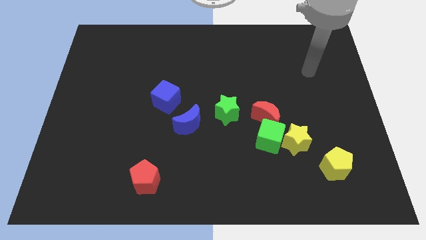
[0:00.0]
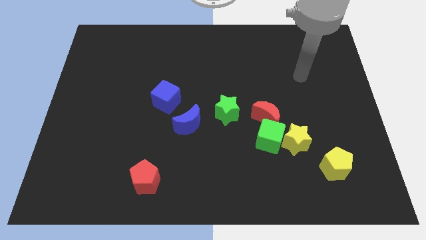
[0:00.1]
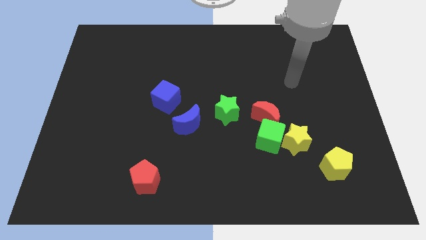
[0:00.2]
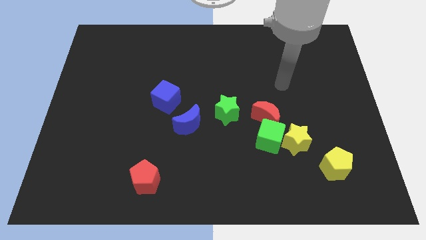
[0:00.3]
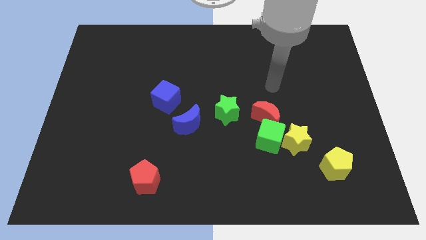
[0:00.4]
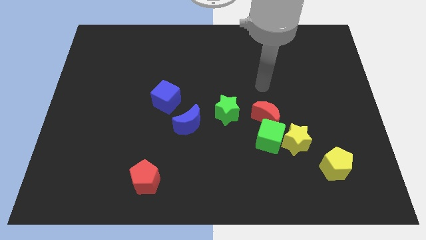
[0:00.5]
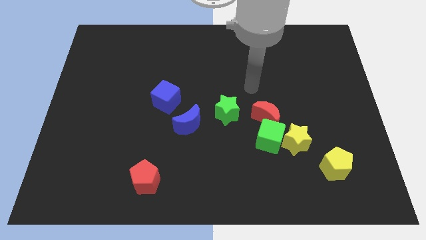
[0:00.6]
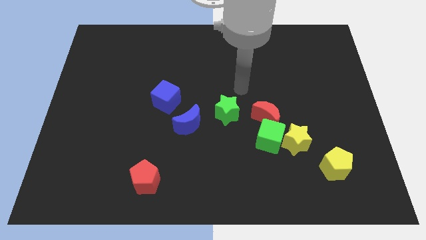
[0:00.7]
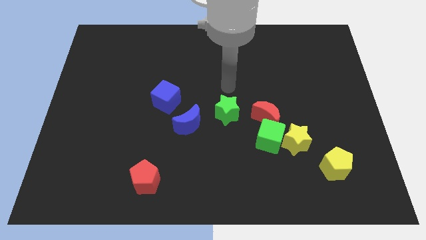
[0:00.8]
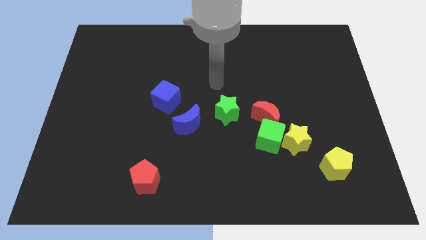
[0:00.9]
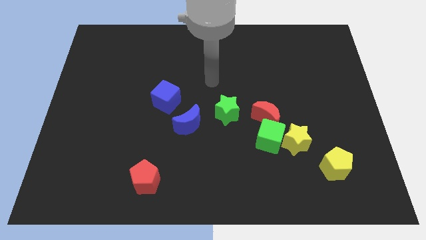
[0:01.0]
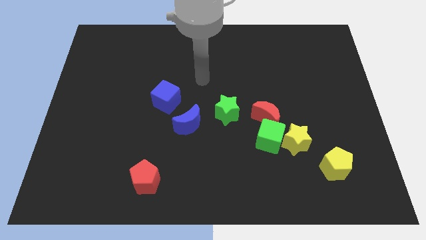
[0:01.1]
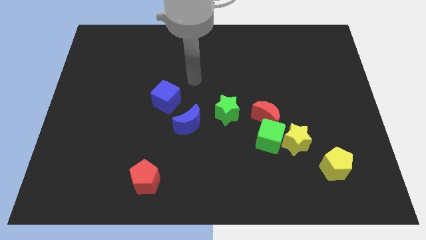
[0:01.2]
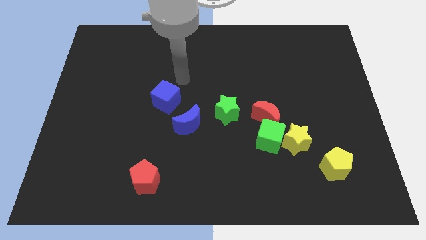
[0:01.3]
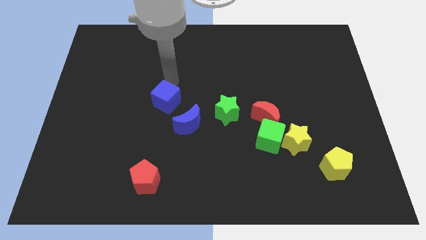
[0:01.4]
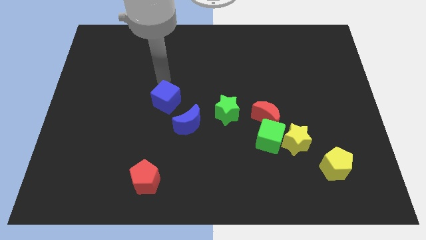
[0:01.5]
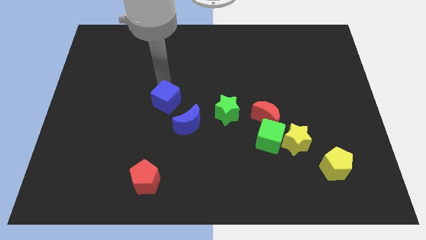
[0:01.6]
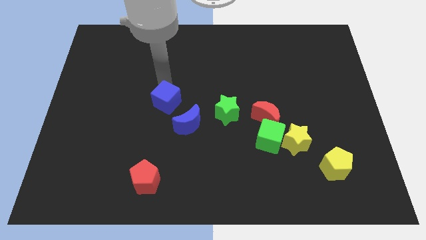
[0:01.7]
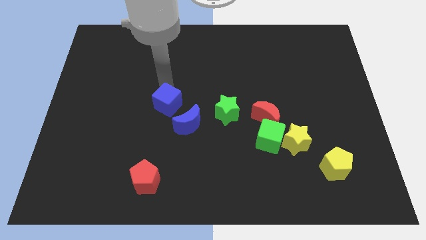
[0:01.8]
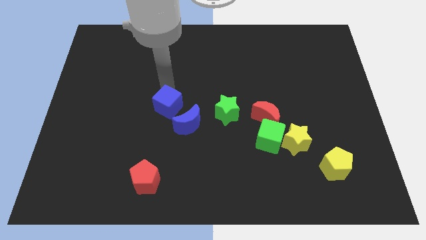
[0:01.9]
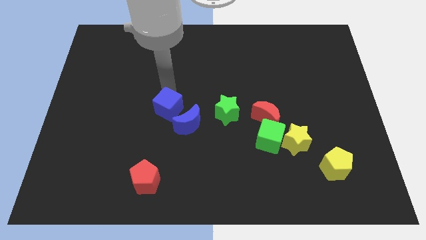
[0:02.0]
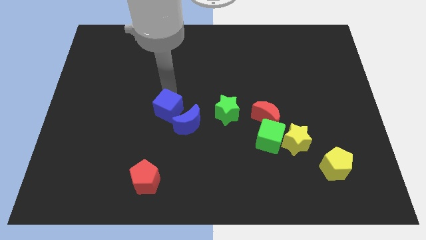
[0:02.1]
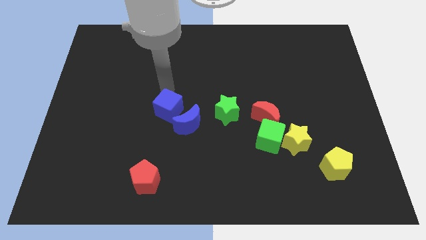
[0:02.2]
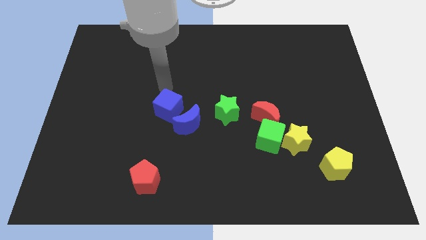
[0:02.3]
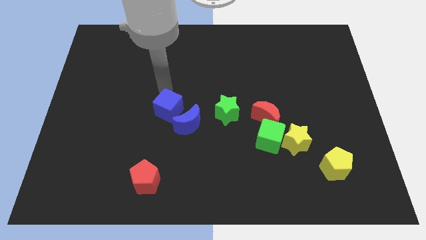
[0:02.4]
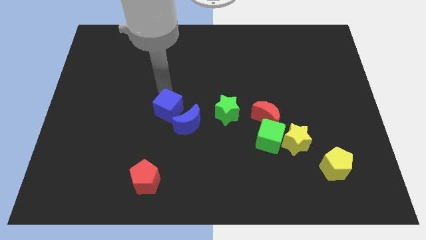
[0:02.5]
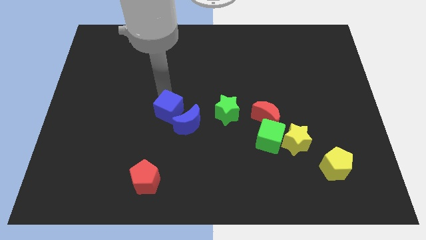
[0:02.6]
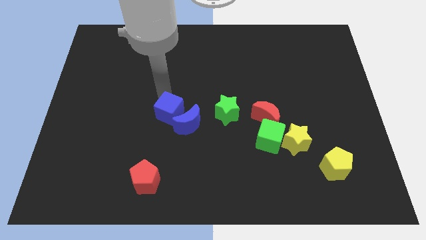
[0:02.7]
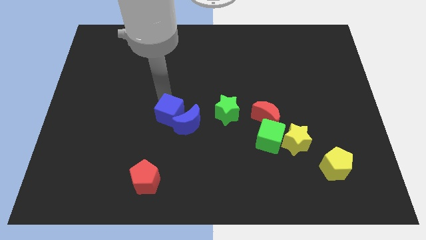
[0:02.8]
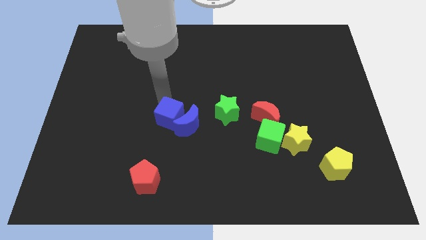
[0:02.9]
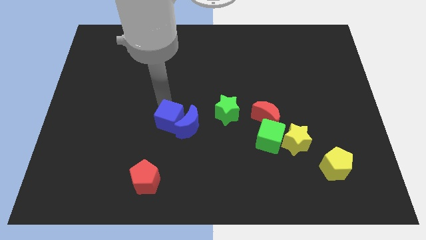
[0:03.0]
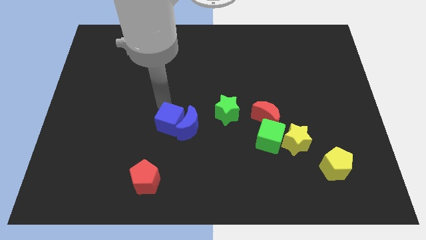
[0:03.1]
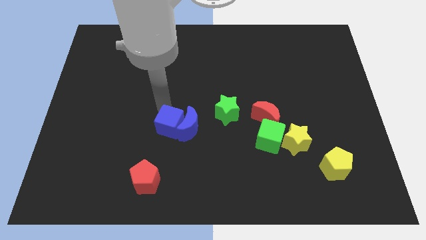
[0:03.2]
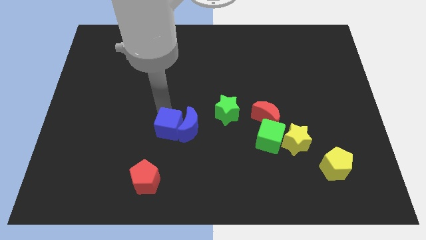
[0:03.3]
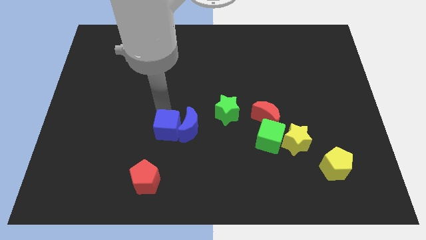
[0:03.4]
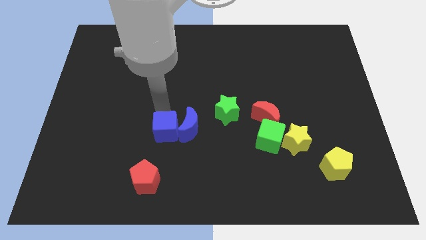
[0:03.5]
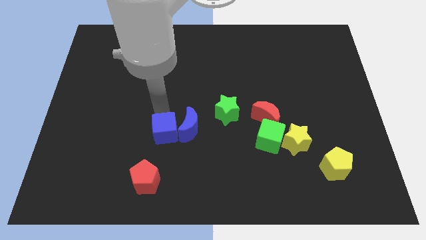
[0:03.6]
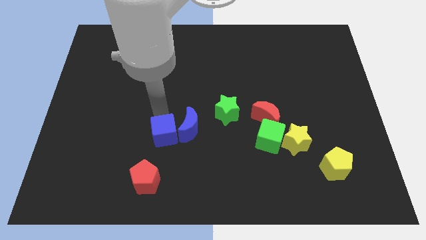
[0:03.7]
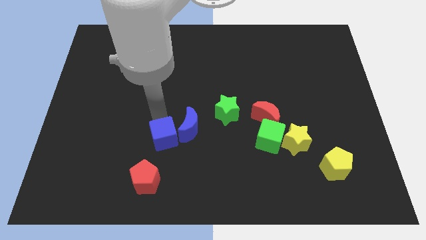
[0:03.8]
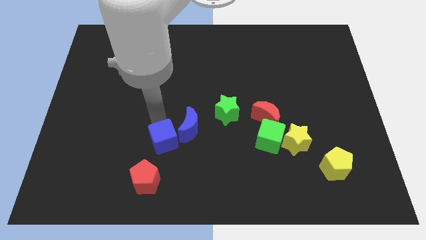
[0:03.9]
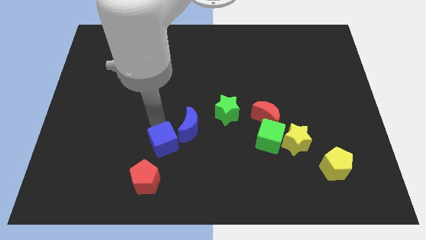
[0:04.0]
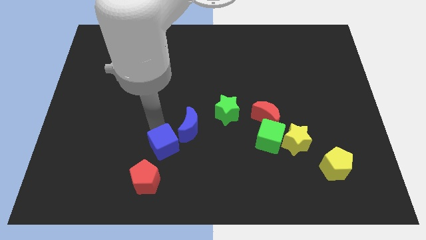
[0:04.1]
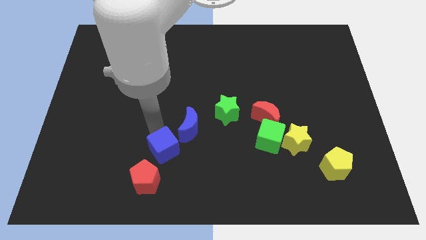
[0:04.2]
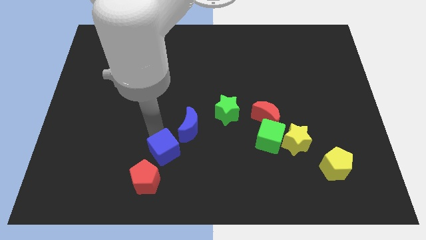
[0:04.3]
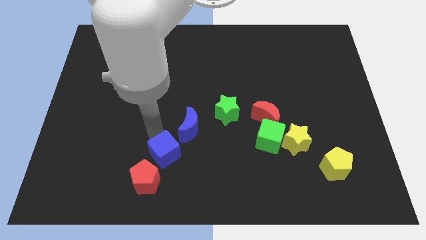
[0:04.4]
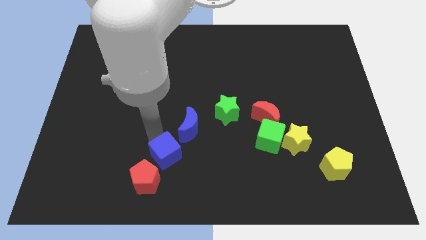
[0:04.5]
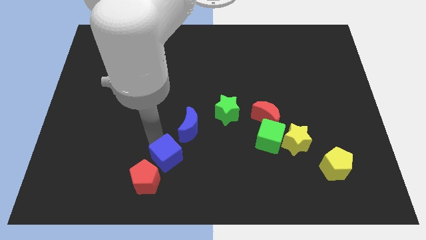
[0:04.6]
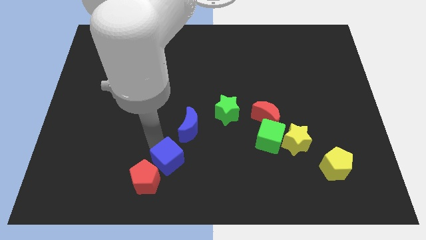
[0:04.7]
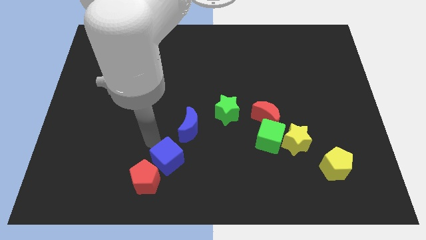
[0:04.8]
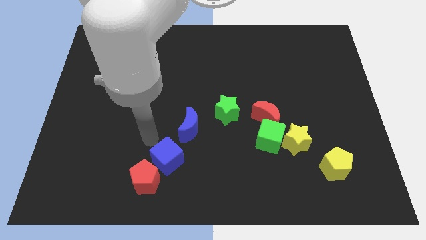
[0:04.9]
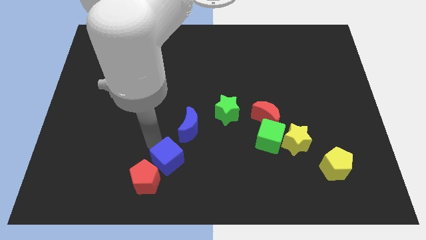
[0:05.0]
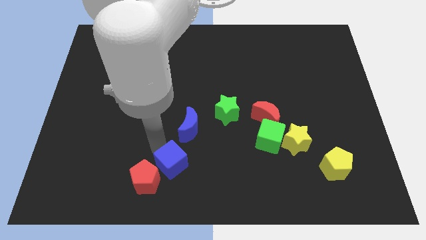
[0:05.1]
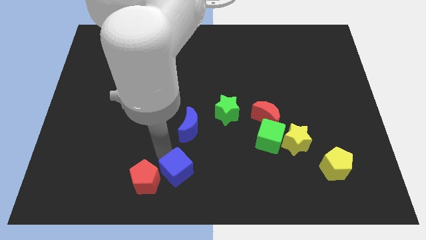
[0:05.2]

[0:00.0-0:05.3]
move the blue cube to the bottom

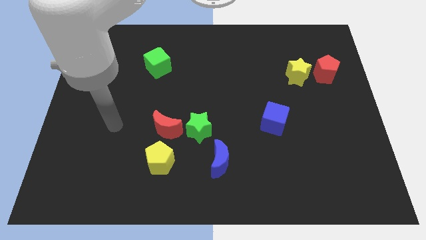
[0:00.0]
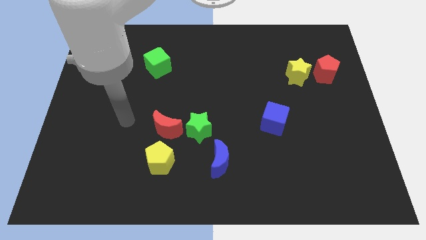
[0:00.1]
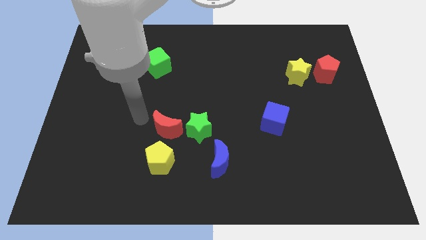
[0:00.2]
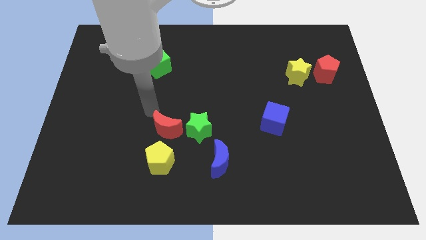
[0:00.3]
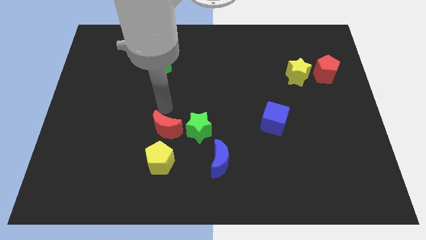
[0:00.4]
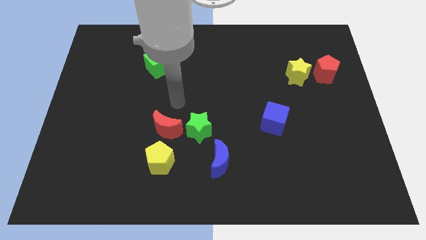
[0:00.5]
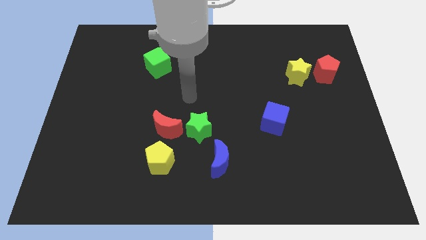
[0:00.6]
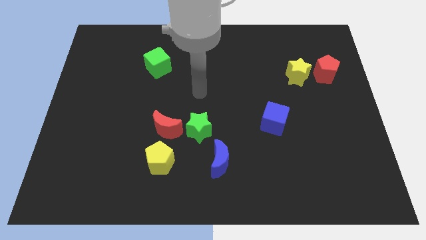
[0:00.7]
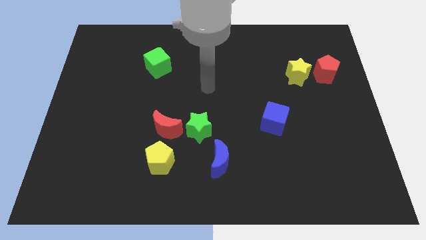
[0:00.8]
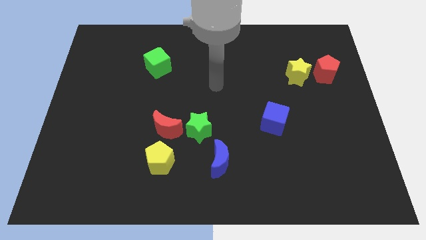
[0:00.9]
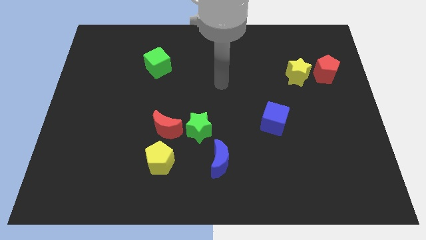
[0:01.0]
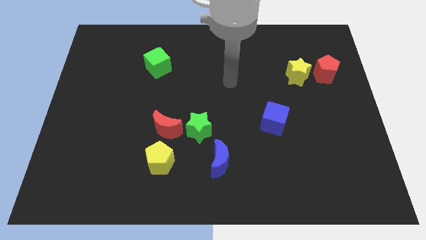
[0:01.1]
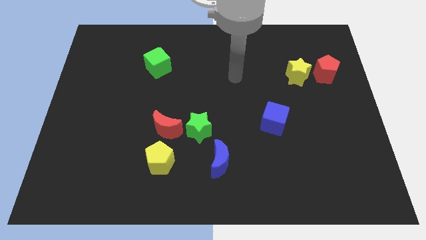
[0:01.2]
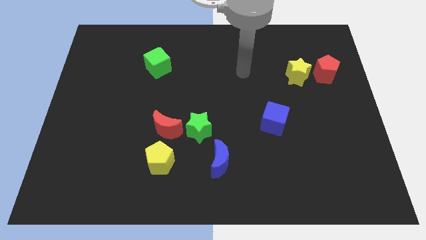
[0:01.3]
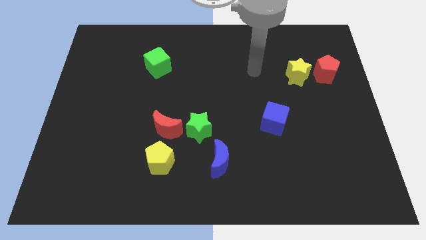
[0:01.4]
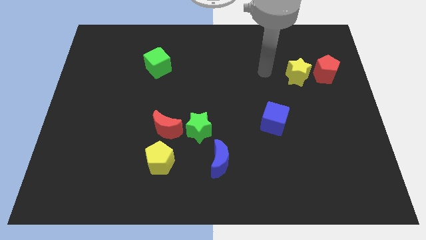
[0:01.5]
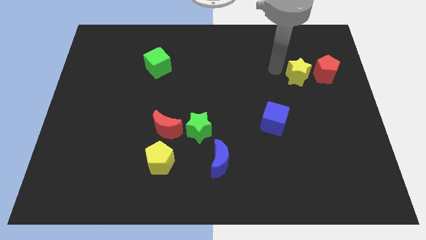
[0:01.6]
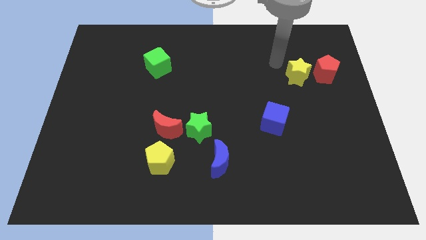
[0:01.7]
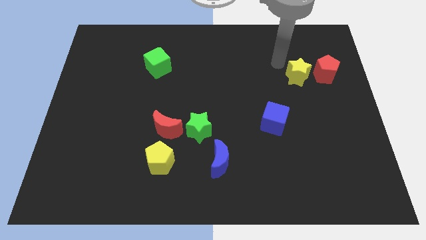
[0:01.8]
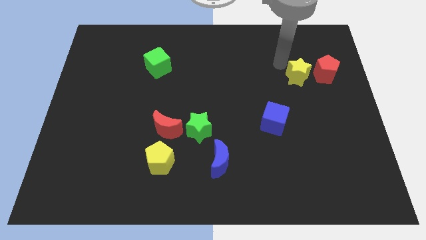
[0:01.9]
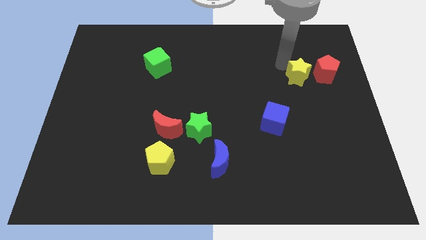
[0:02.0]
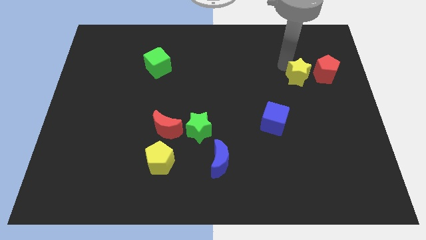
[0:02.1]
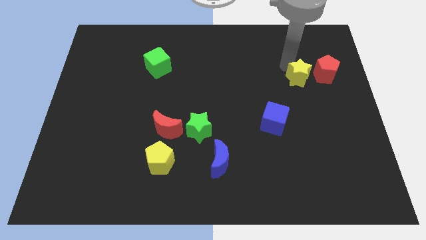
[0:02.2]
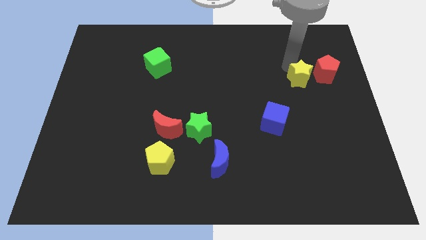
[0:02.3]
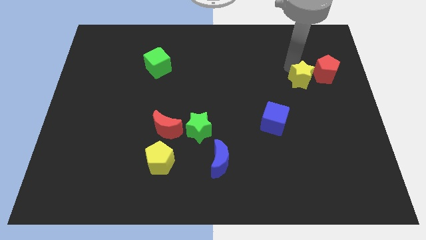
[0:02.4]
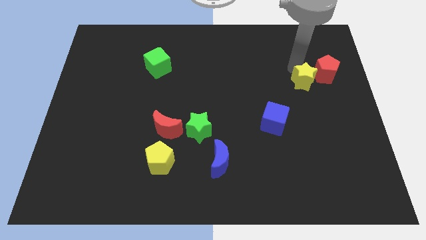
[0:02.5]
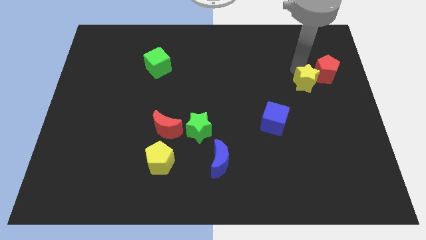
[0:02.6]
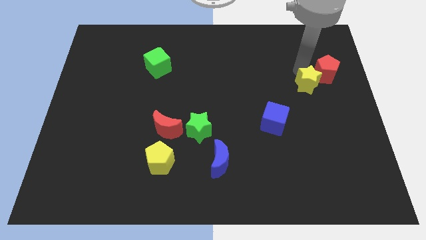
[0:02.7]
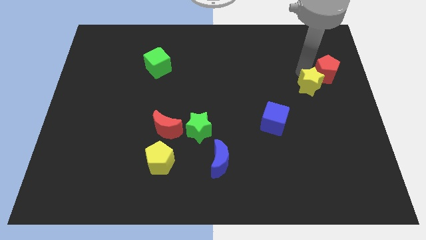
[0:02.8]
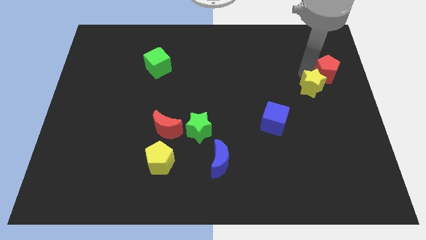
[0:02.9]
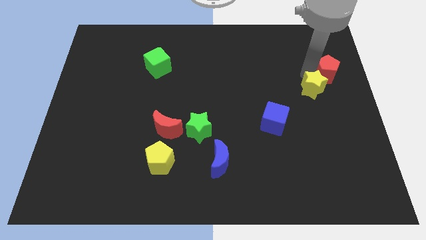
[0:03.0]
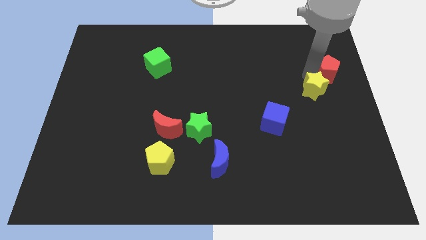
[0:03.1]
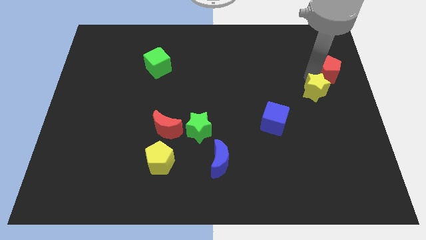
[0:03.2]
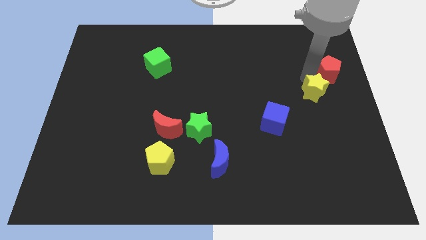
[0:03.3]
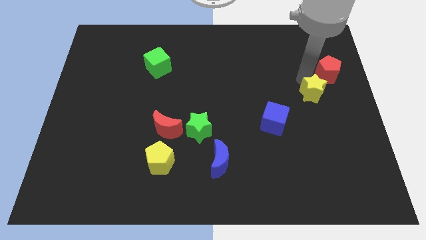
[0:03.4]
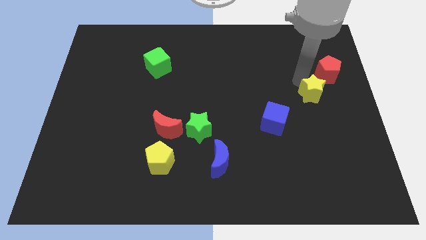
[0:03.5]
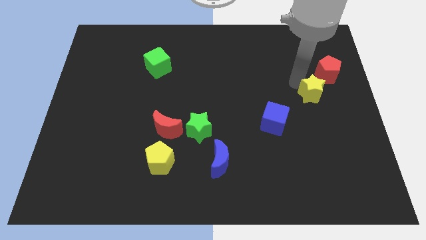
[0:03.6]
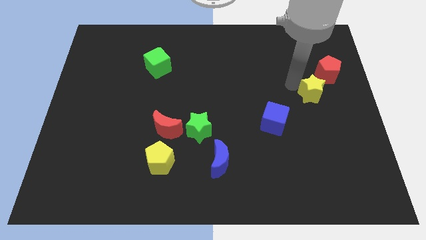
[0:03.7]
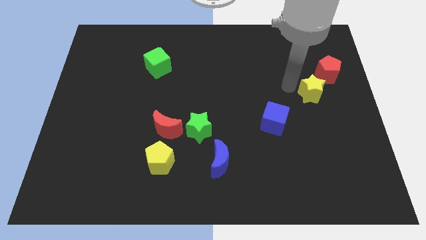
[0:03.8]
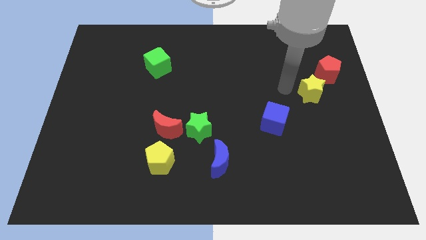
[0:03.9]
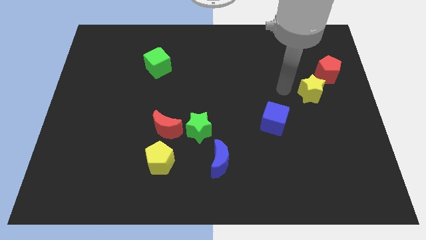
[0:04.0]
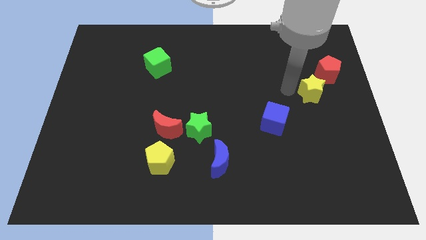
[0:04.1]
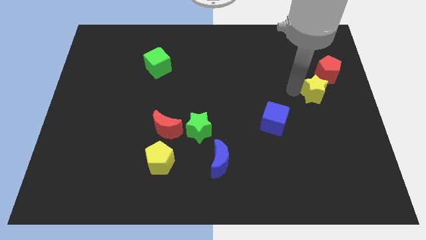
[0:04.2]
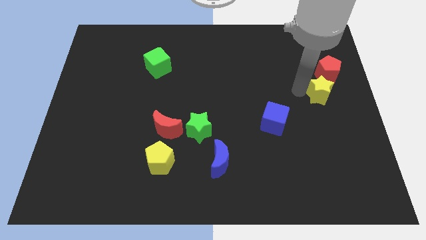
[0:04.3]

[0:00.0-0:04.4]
move the yellow star to the right side
